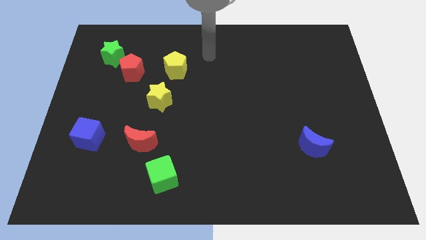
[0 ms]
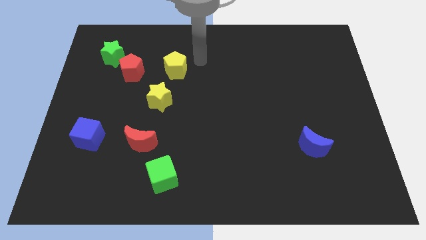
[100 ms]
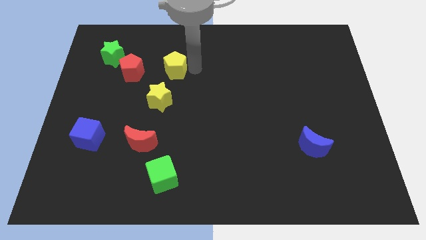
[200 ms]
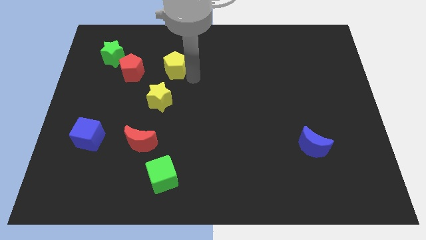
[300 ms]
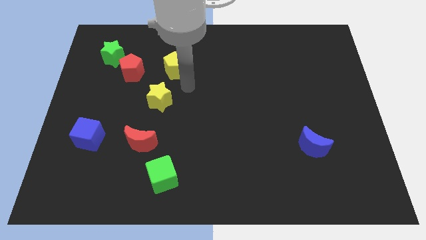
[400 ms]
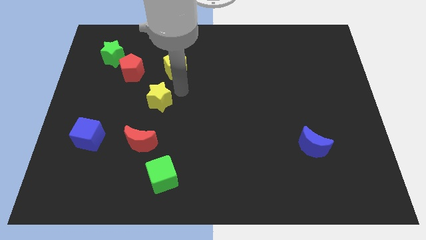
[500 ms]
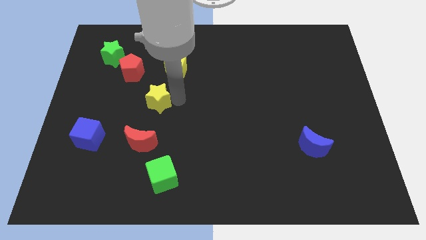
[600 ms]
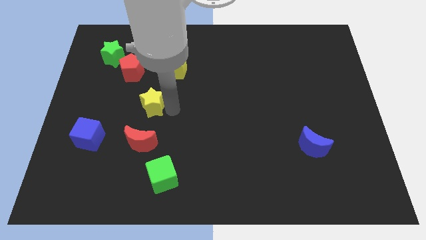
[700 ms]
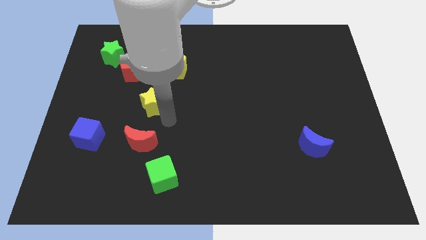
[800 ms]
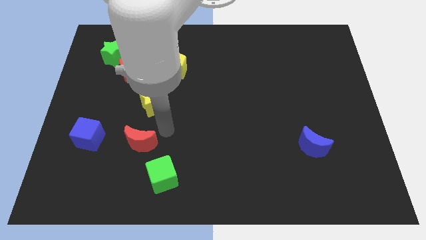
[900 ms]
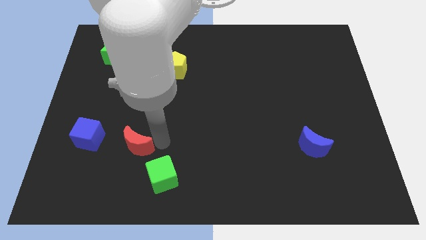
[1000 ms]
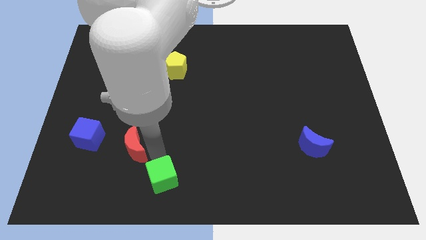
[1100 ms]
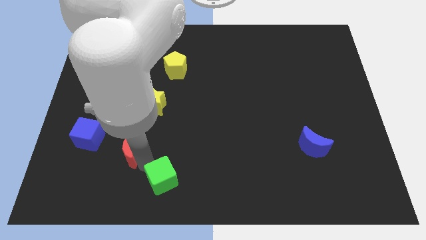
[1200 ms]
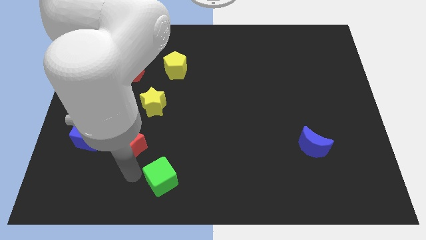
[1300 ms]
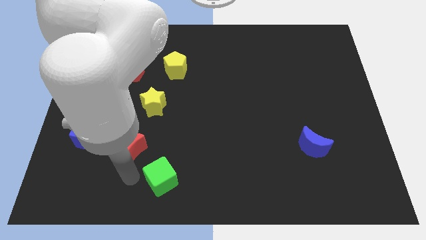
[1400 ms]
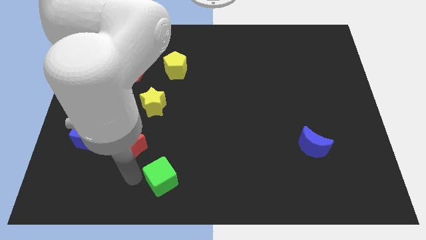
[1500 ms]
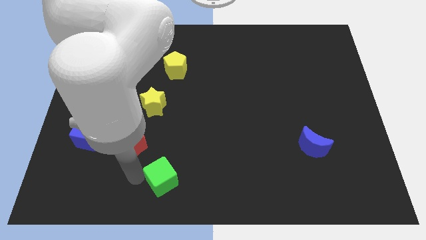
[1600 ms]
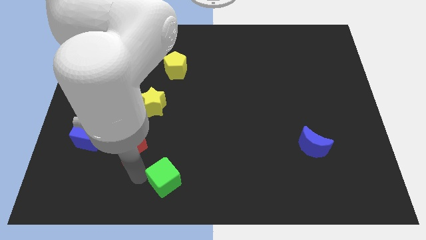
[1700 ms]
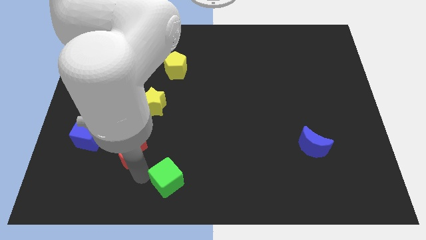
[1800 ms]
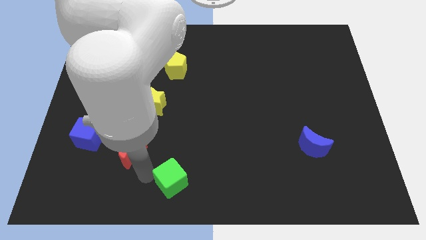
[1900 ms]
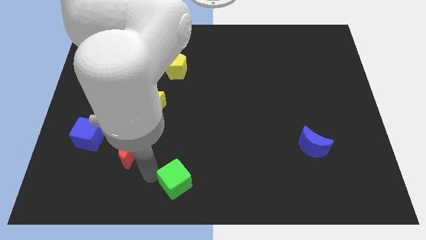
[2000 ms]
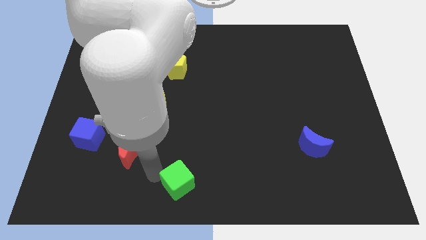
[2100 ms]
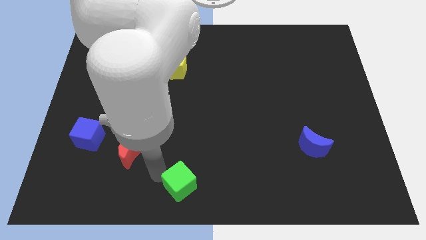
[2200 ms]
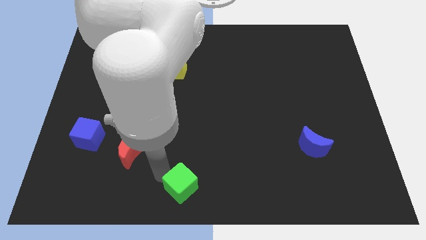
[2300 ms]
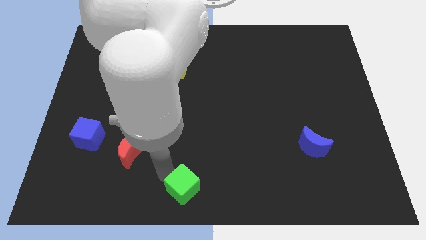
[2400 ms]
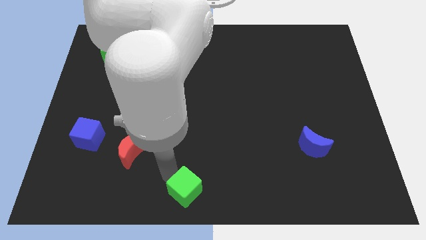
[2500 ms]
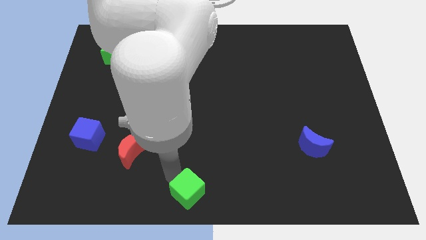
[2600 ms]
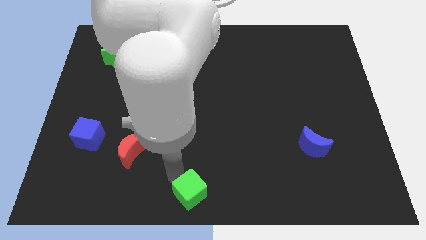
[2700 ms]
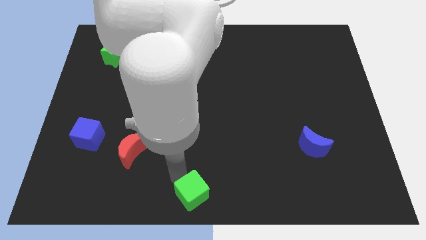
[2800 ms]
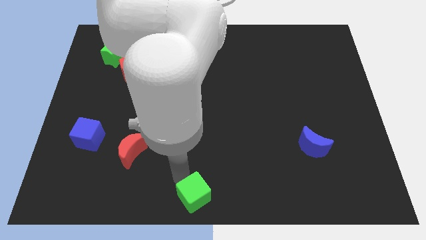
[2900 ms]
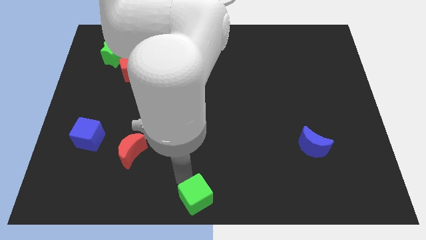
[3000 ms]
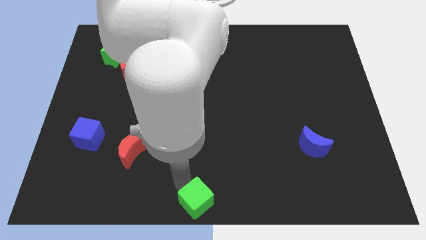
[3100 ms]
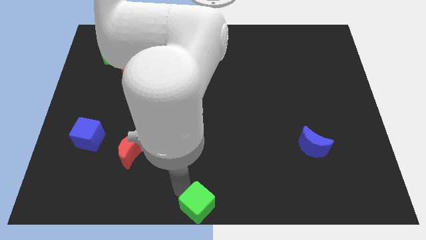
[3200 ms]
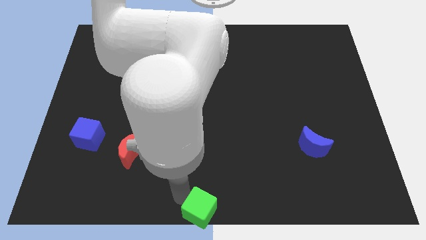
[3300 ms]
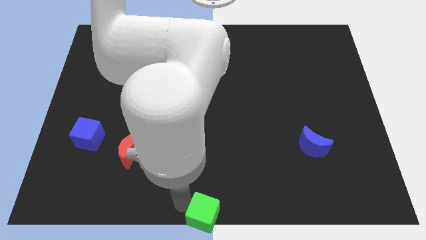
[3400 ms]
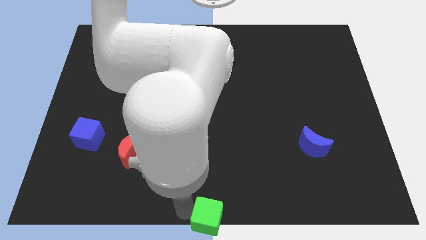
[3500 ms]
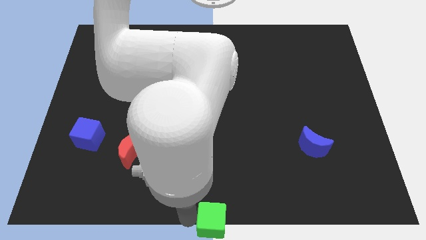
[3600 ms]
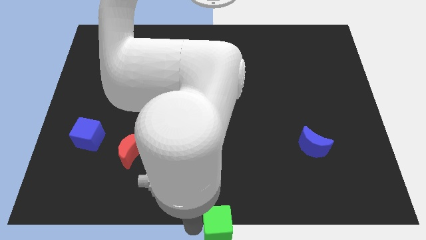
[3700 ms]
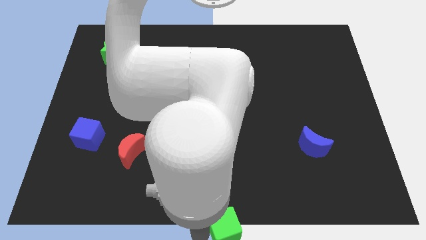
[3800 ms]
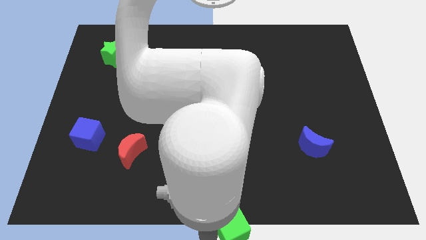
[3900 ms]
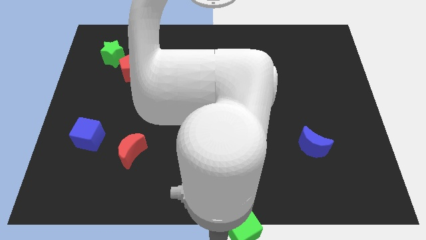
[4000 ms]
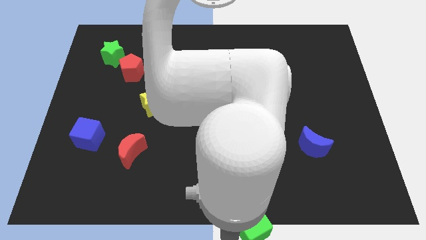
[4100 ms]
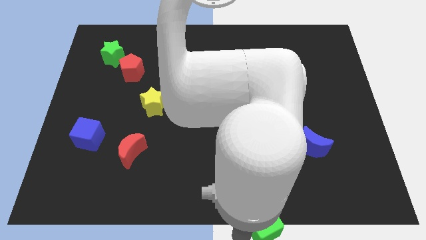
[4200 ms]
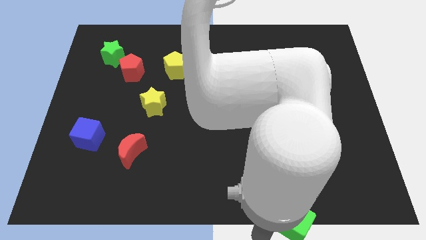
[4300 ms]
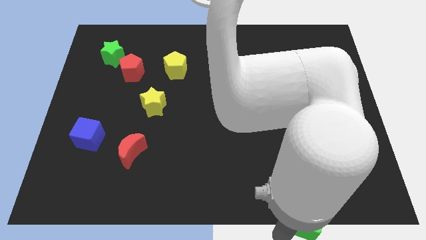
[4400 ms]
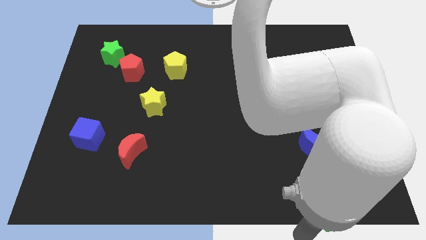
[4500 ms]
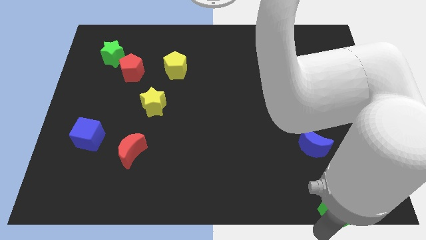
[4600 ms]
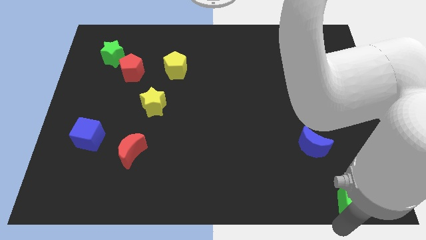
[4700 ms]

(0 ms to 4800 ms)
slide the green cube to the bottom right

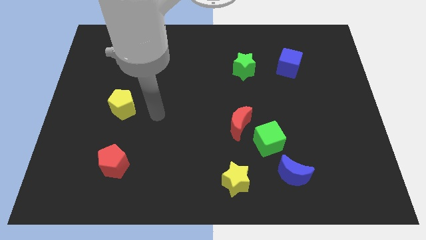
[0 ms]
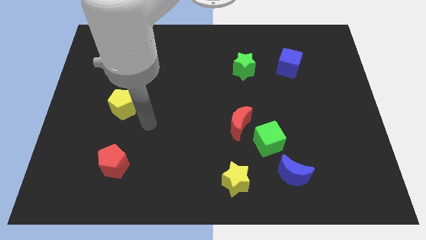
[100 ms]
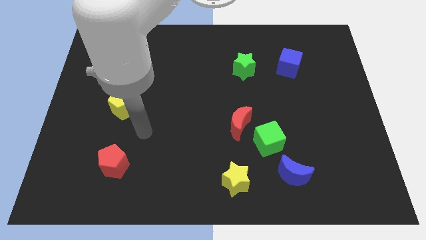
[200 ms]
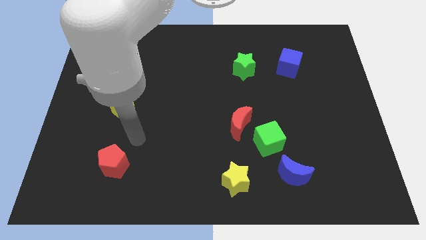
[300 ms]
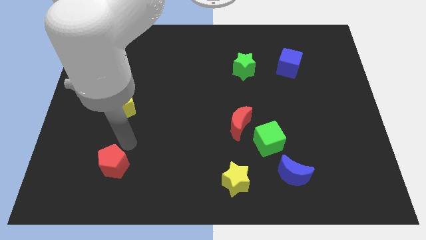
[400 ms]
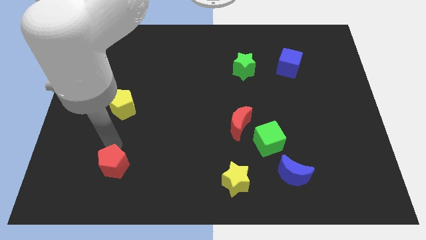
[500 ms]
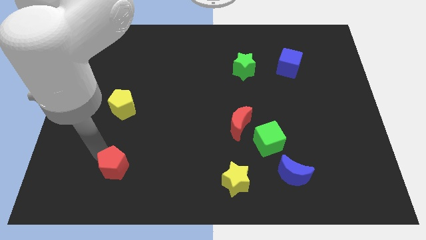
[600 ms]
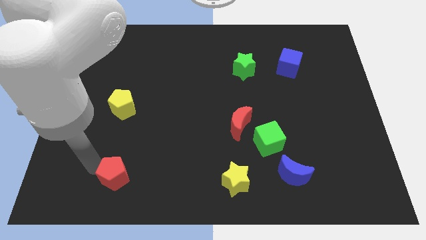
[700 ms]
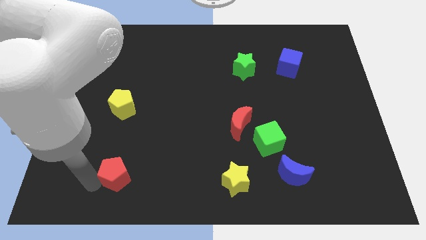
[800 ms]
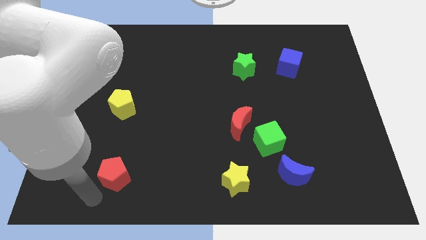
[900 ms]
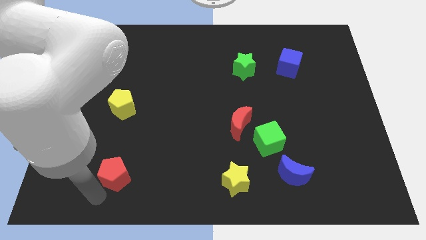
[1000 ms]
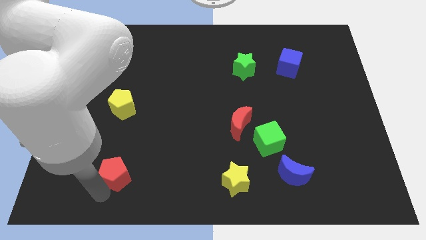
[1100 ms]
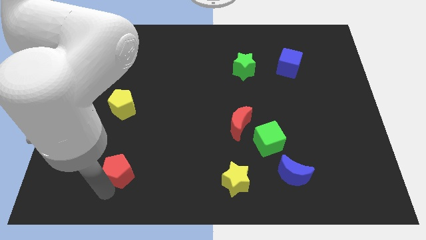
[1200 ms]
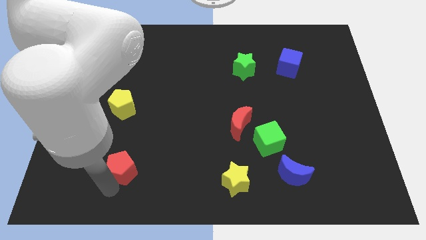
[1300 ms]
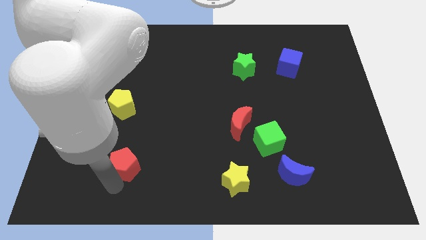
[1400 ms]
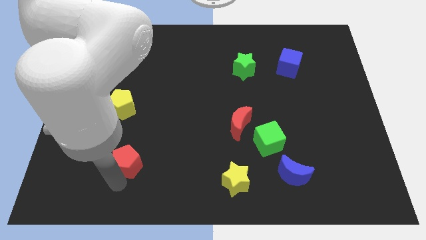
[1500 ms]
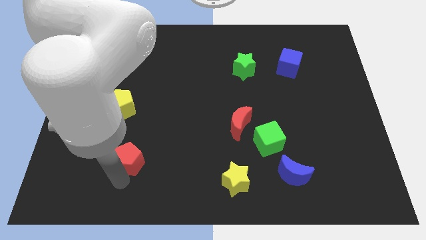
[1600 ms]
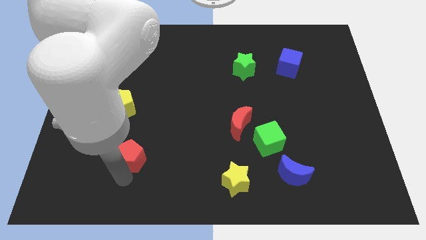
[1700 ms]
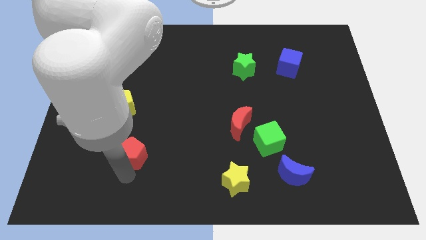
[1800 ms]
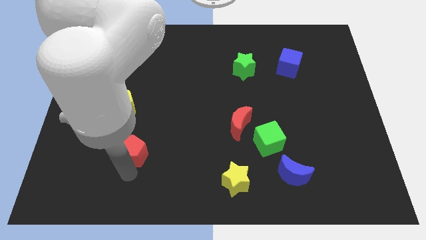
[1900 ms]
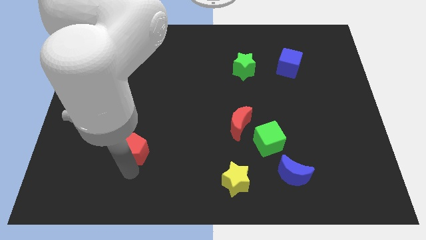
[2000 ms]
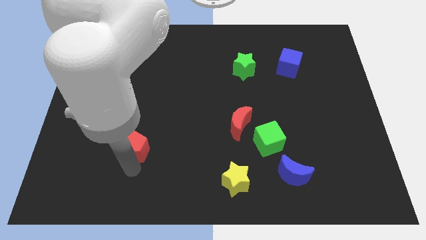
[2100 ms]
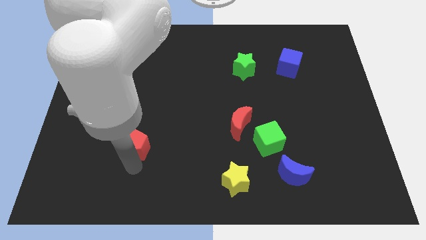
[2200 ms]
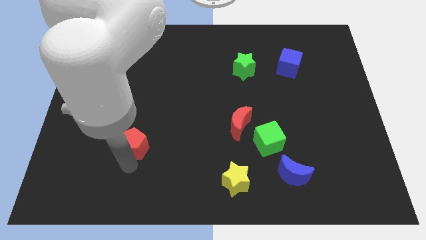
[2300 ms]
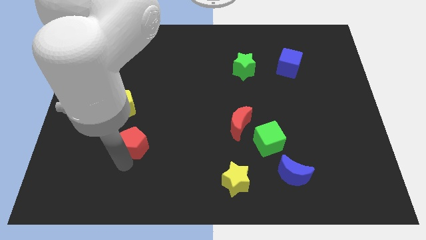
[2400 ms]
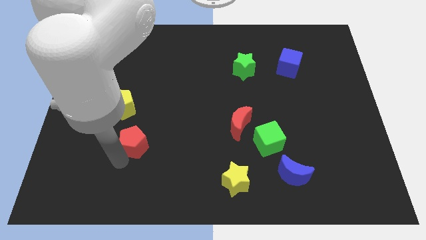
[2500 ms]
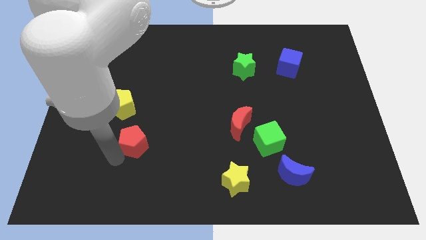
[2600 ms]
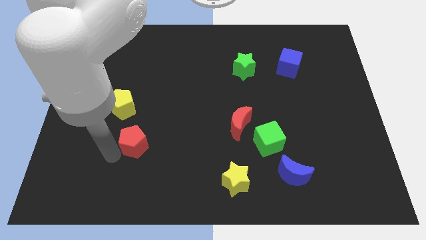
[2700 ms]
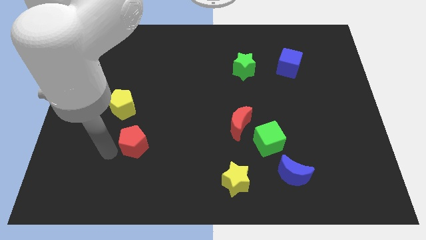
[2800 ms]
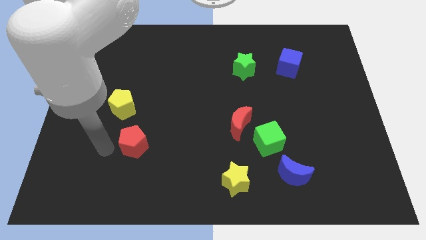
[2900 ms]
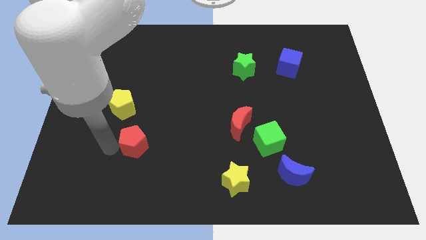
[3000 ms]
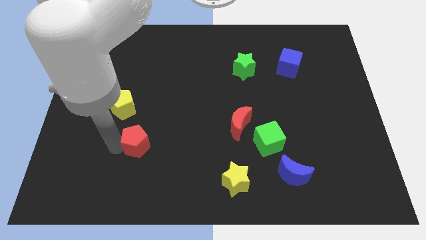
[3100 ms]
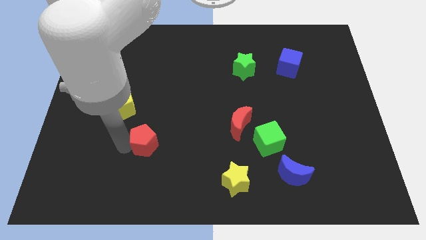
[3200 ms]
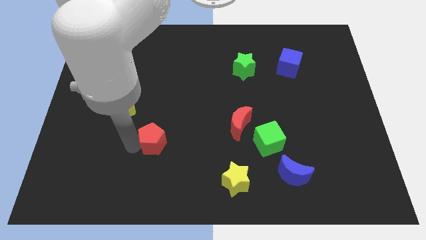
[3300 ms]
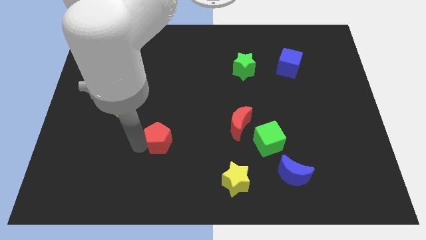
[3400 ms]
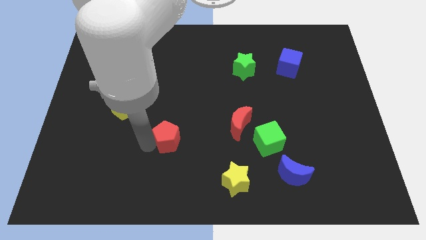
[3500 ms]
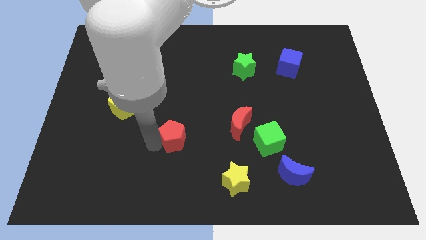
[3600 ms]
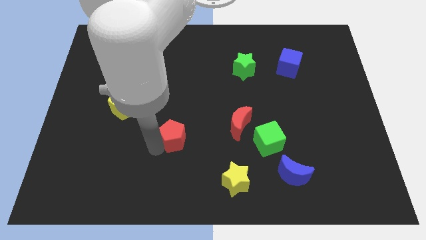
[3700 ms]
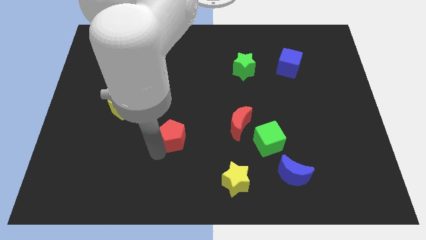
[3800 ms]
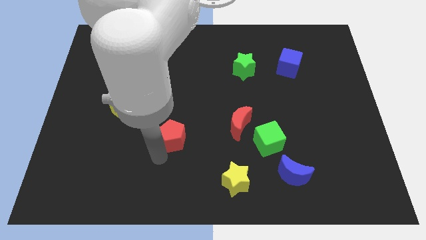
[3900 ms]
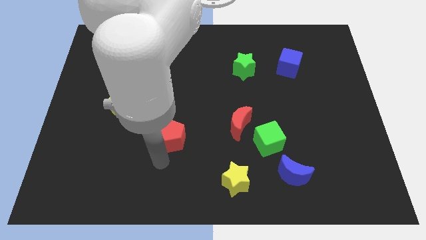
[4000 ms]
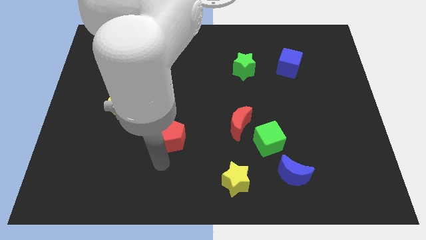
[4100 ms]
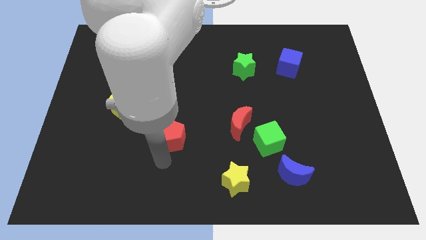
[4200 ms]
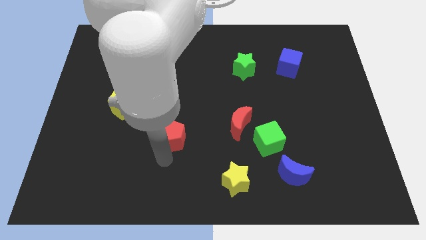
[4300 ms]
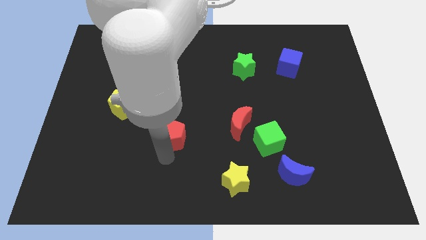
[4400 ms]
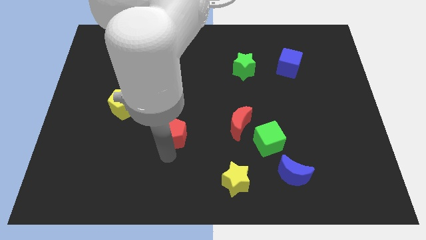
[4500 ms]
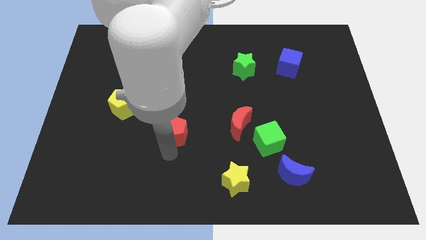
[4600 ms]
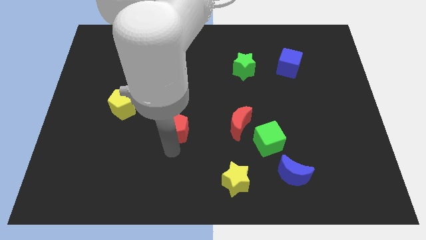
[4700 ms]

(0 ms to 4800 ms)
move the red pentagon to the center
